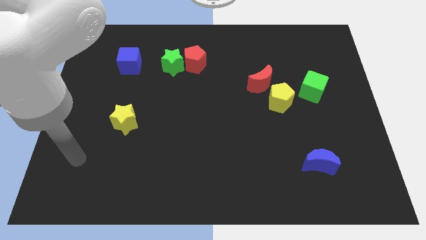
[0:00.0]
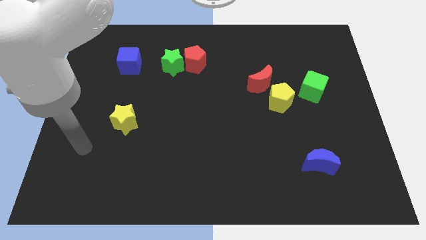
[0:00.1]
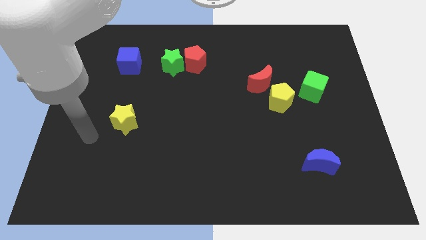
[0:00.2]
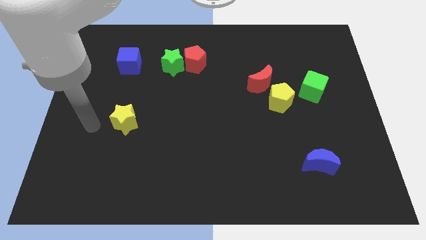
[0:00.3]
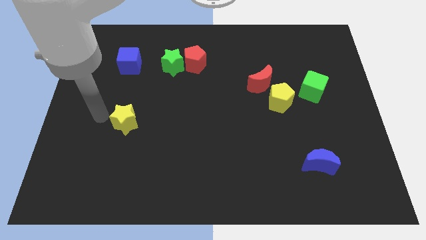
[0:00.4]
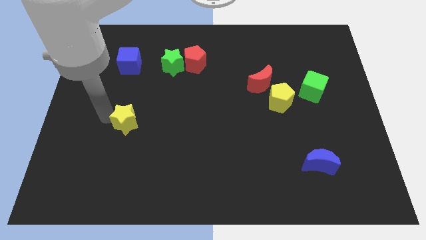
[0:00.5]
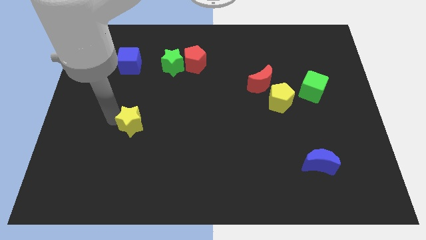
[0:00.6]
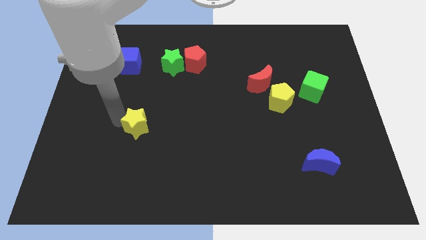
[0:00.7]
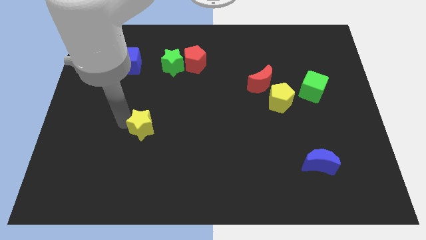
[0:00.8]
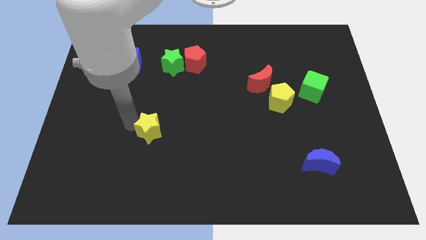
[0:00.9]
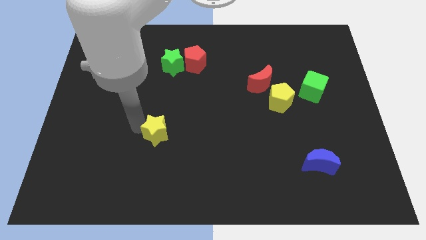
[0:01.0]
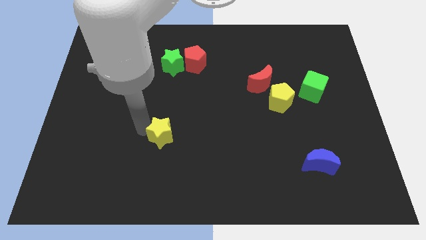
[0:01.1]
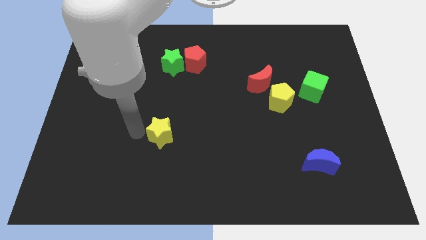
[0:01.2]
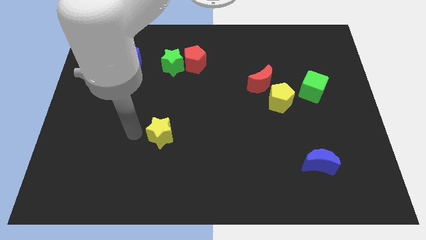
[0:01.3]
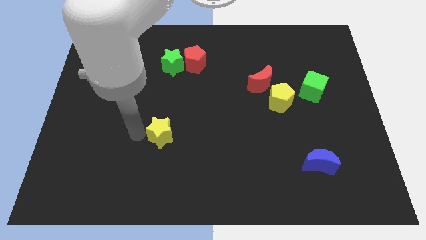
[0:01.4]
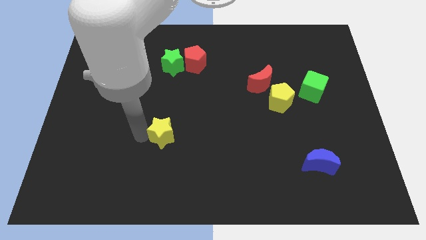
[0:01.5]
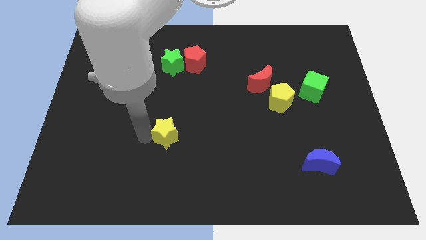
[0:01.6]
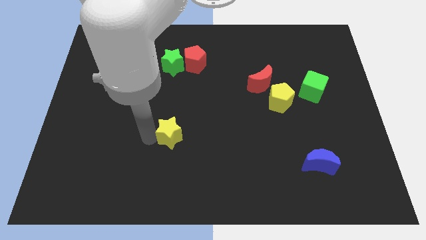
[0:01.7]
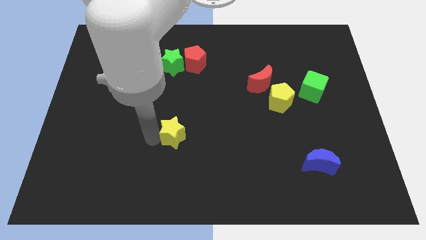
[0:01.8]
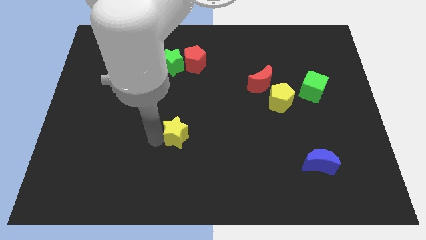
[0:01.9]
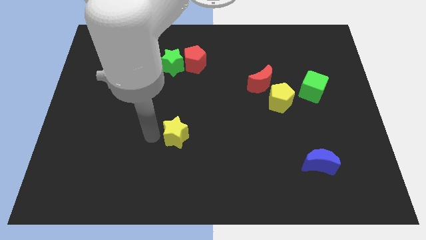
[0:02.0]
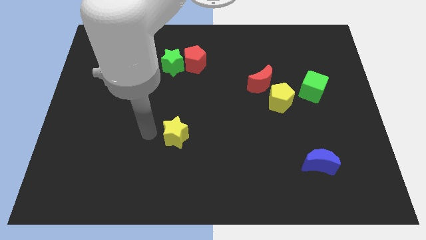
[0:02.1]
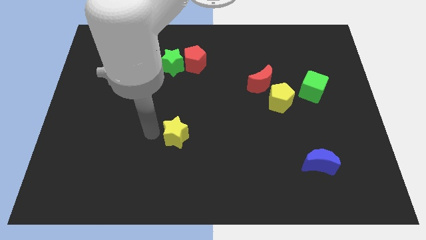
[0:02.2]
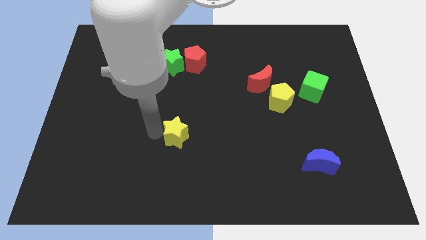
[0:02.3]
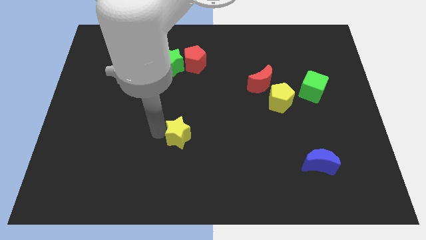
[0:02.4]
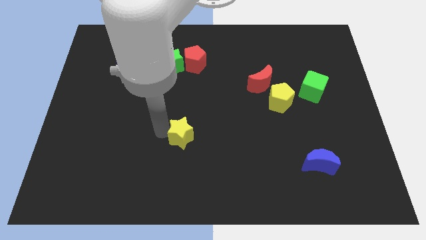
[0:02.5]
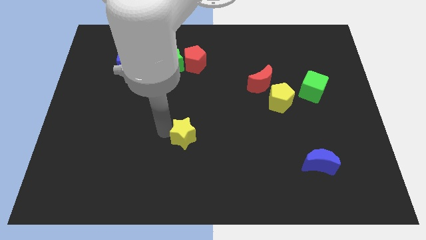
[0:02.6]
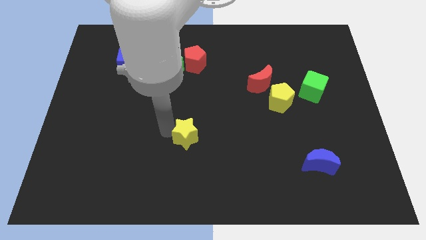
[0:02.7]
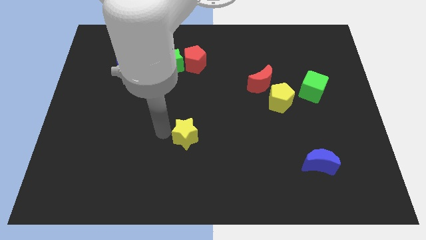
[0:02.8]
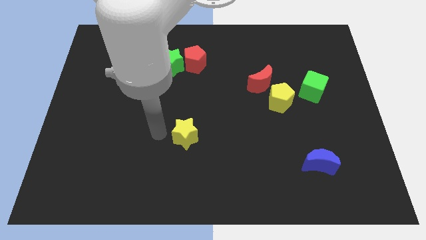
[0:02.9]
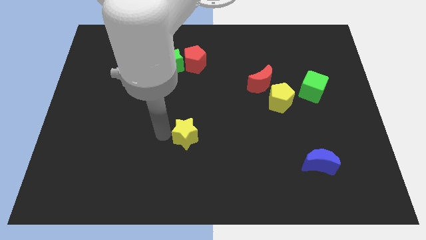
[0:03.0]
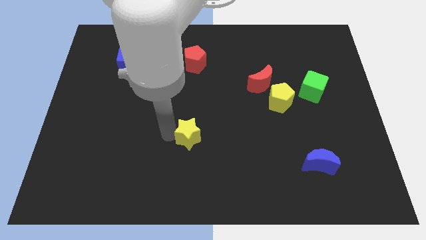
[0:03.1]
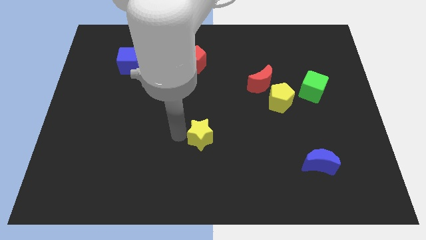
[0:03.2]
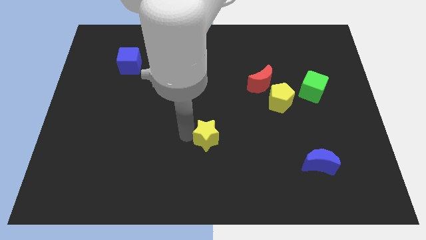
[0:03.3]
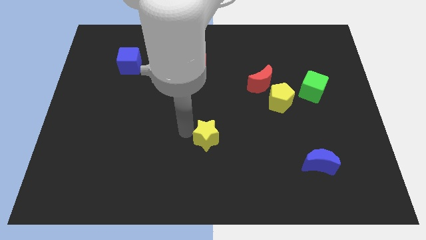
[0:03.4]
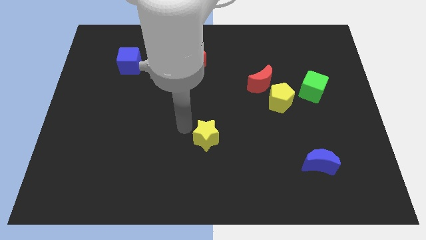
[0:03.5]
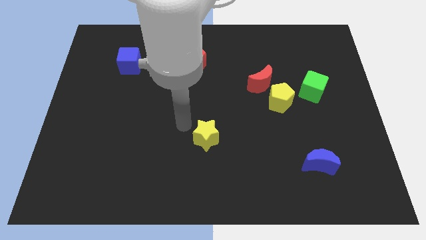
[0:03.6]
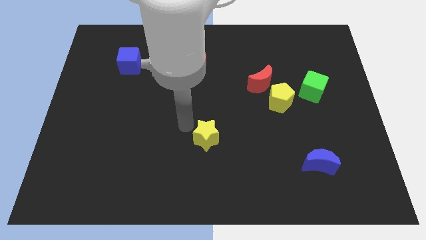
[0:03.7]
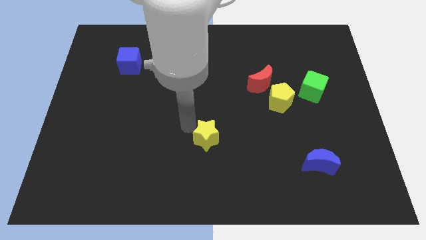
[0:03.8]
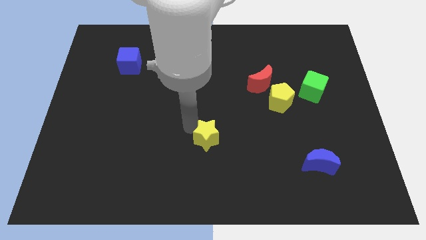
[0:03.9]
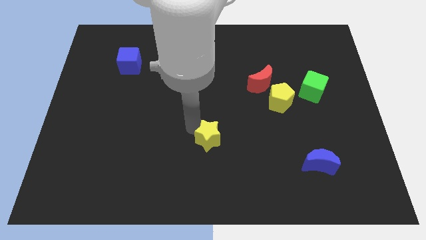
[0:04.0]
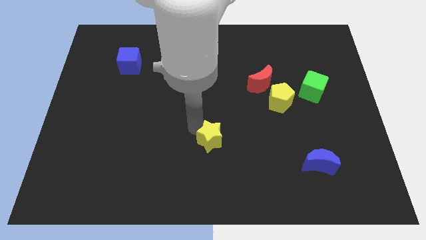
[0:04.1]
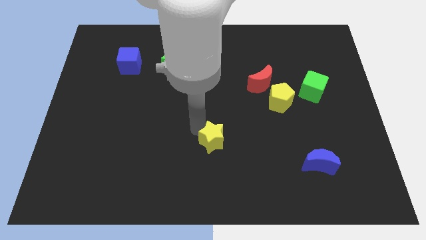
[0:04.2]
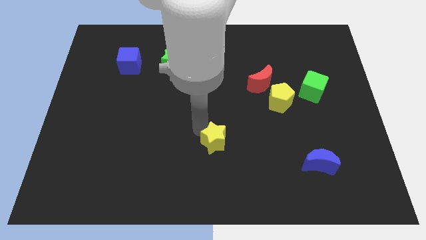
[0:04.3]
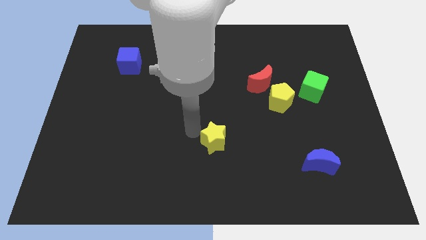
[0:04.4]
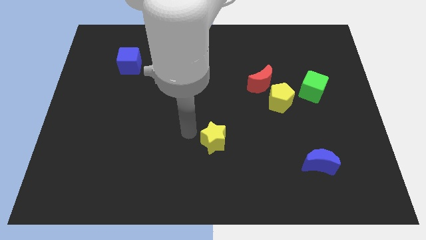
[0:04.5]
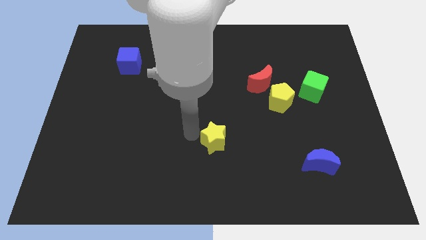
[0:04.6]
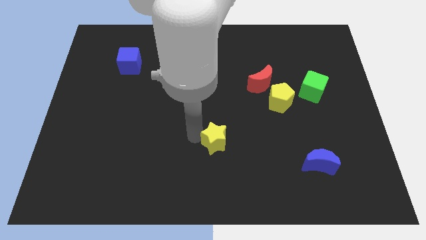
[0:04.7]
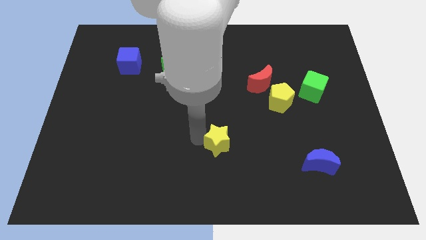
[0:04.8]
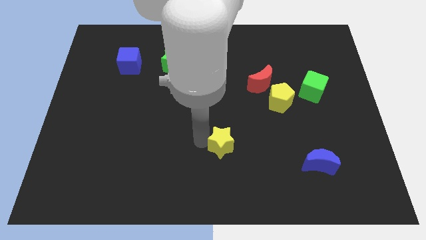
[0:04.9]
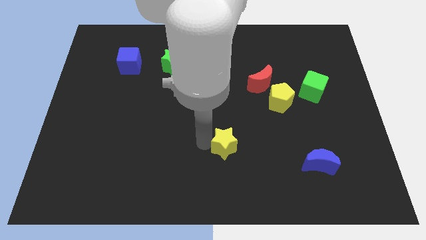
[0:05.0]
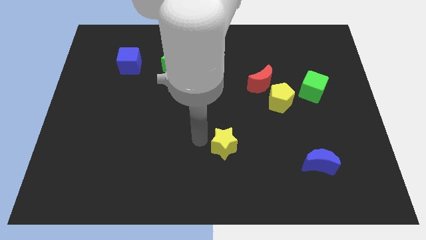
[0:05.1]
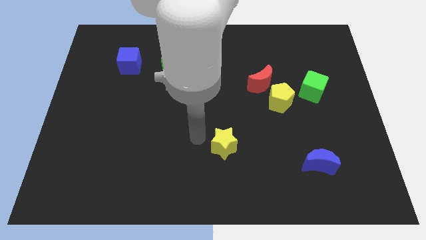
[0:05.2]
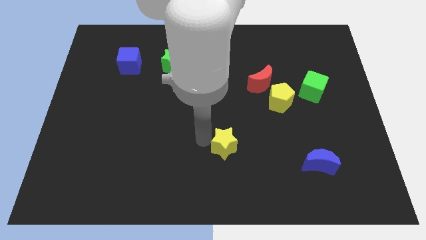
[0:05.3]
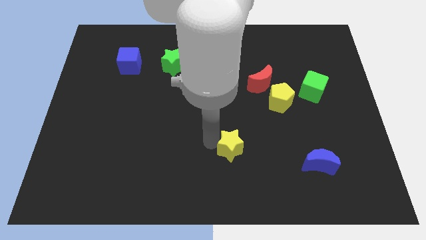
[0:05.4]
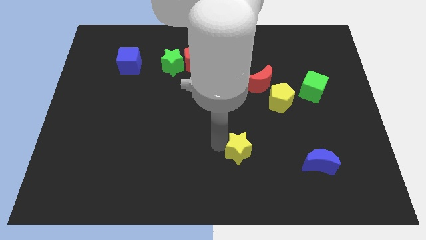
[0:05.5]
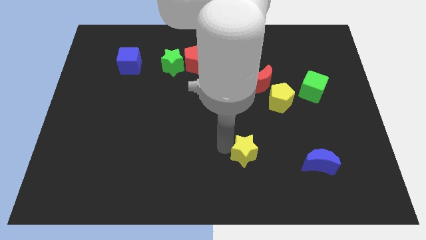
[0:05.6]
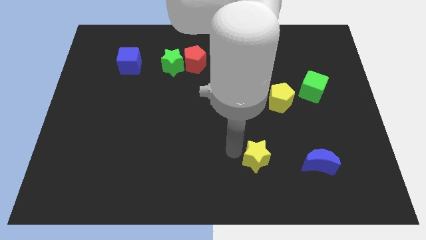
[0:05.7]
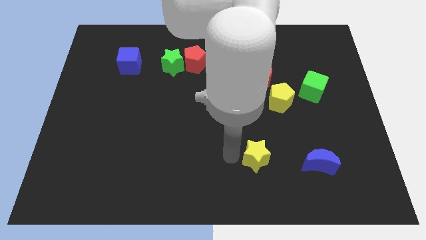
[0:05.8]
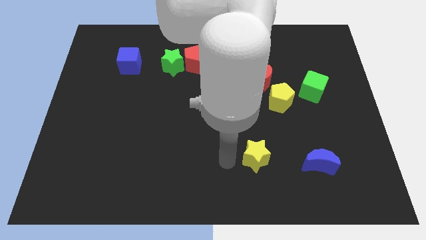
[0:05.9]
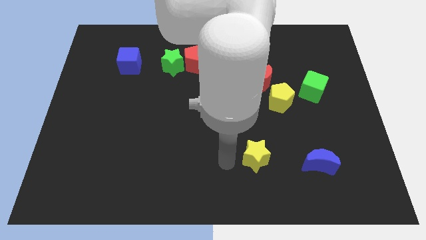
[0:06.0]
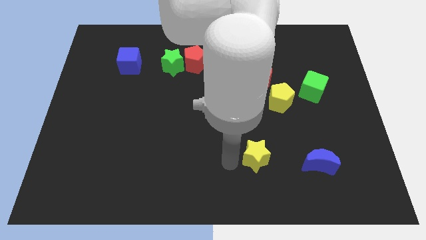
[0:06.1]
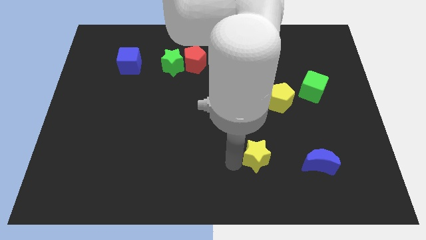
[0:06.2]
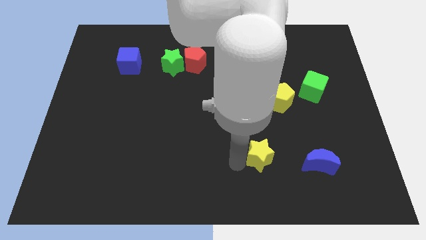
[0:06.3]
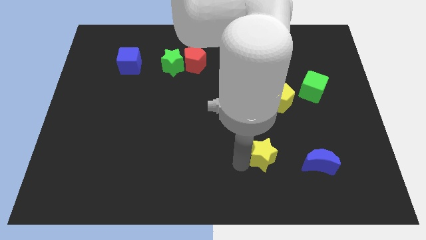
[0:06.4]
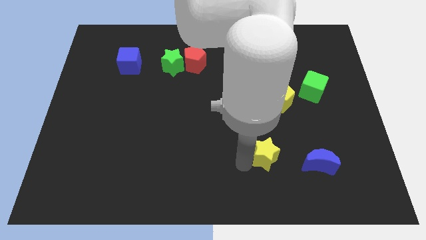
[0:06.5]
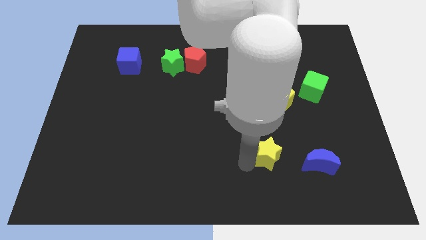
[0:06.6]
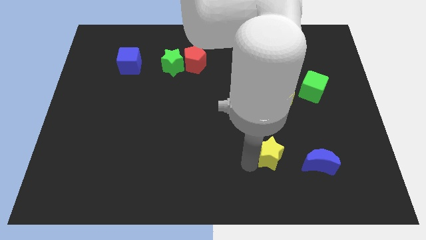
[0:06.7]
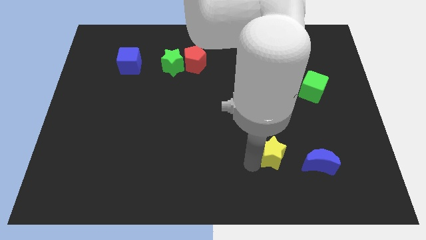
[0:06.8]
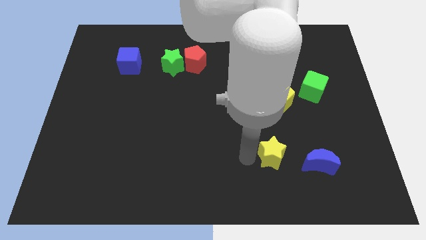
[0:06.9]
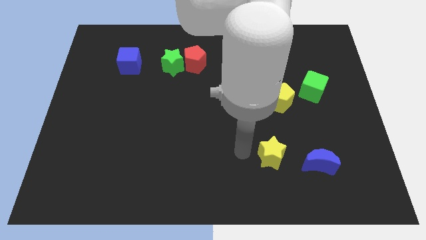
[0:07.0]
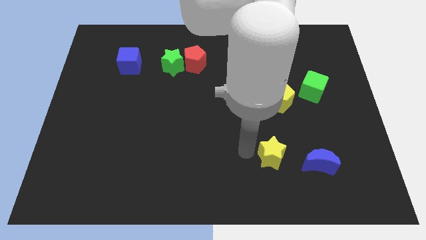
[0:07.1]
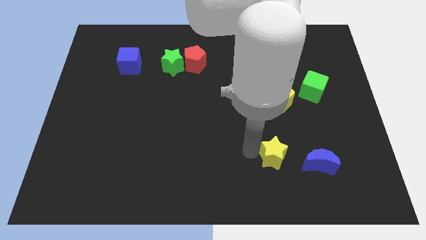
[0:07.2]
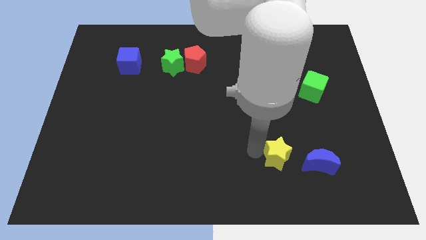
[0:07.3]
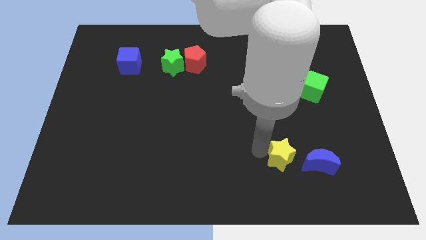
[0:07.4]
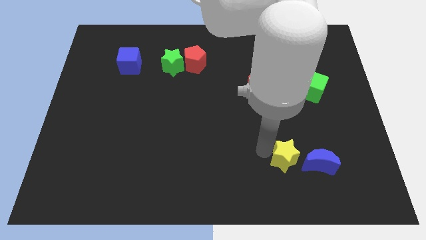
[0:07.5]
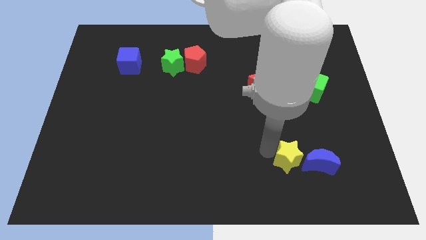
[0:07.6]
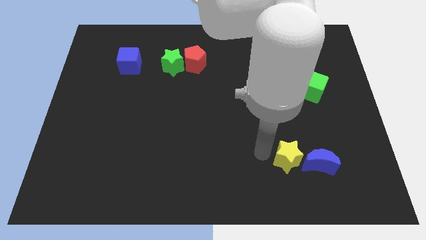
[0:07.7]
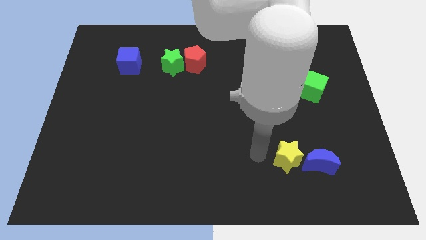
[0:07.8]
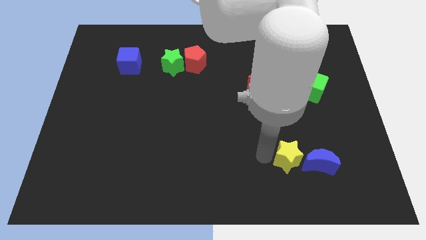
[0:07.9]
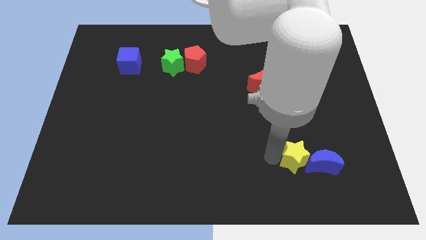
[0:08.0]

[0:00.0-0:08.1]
put the yellow star close to the blue moon
